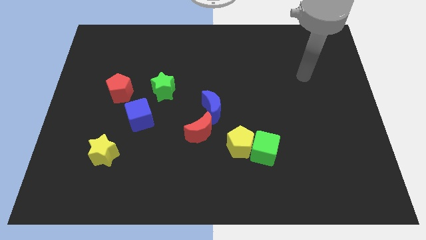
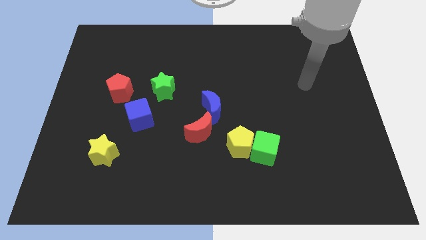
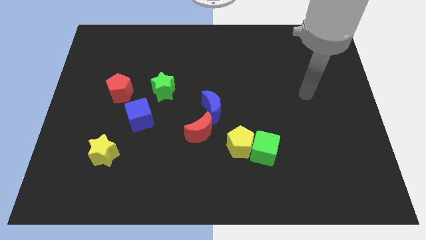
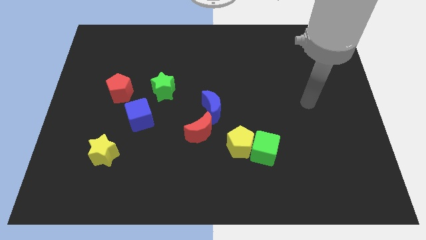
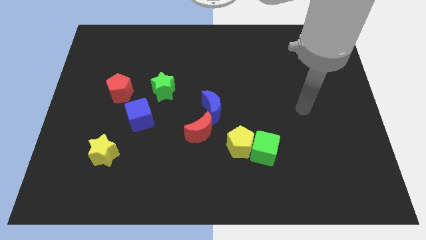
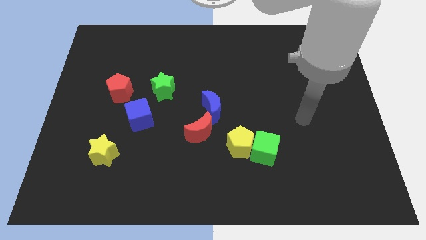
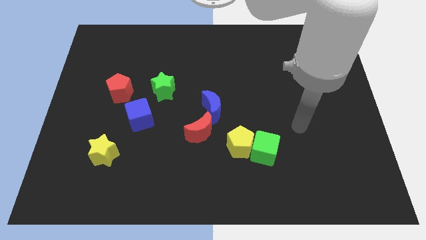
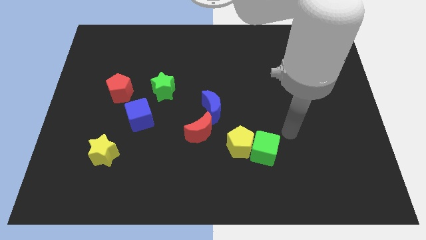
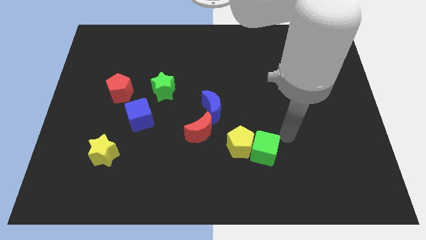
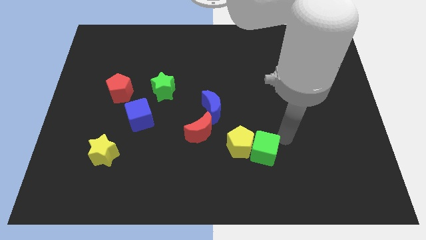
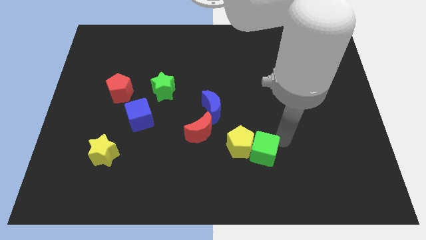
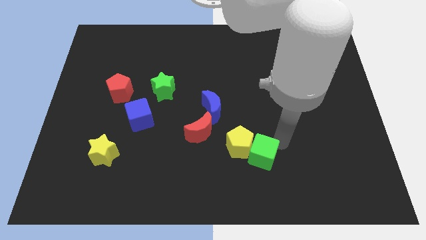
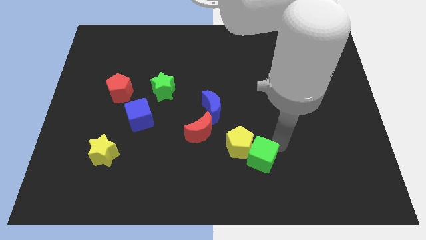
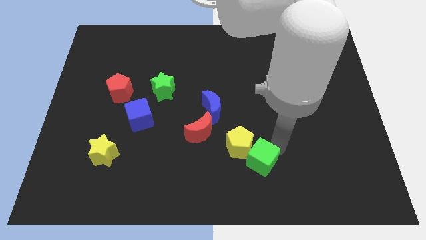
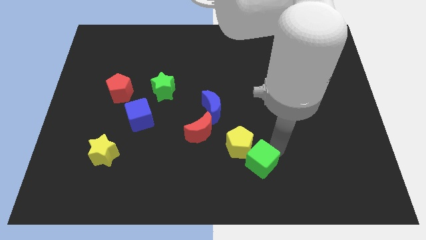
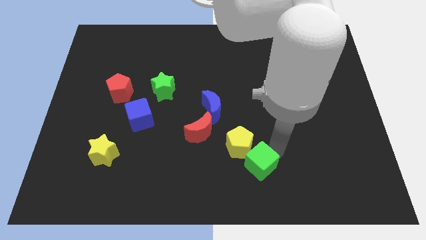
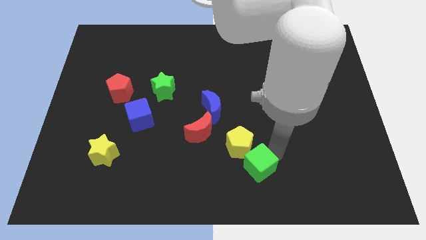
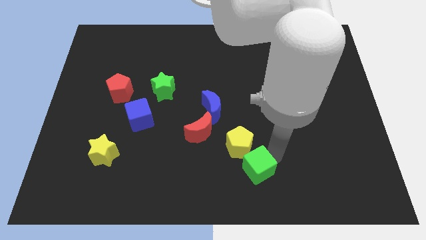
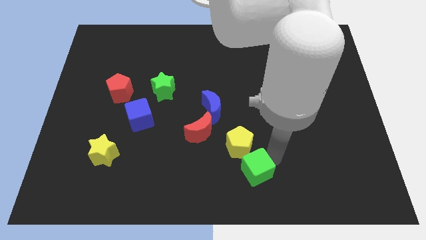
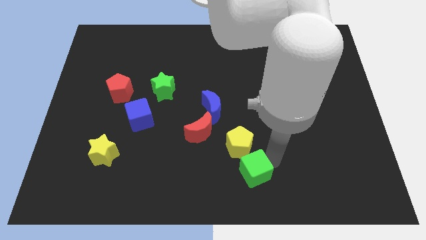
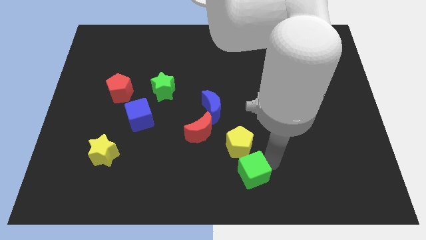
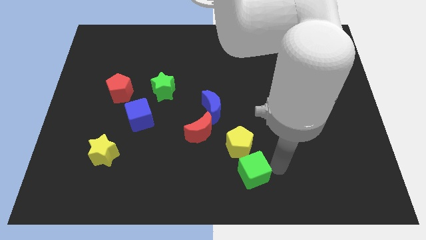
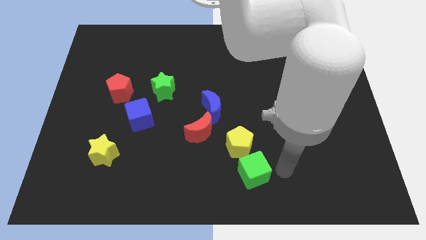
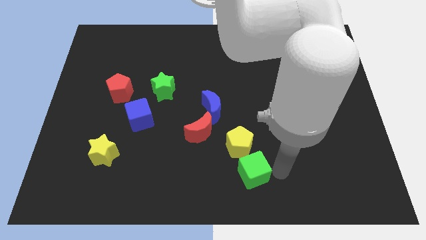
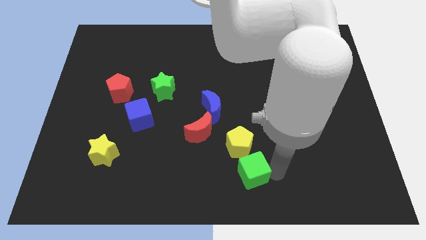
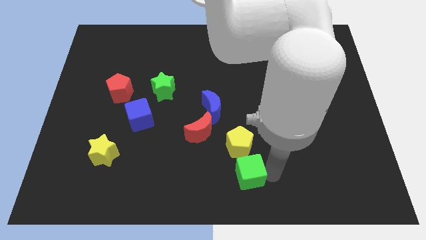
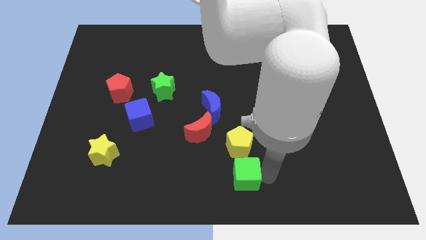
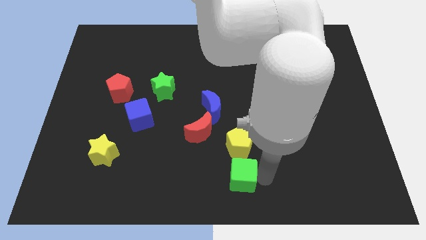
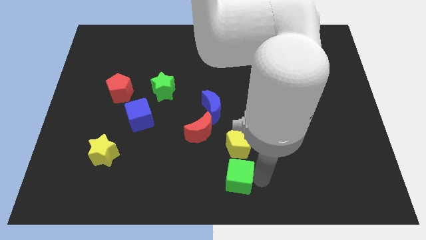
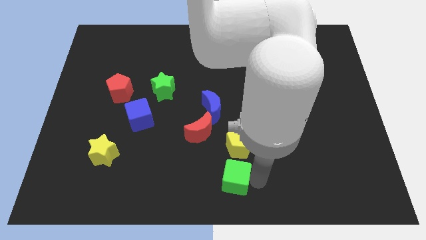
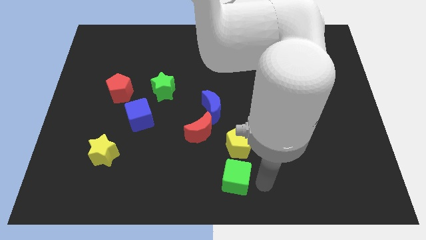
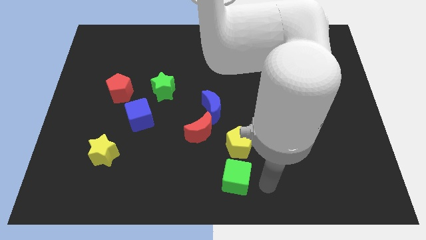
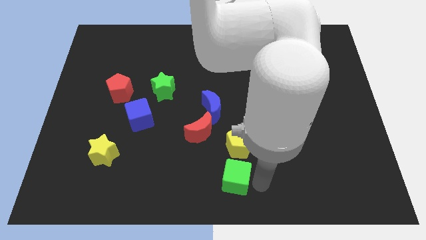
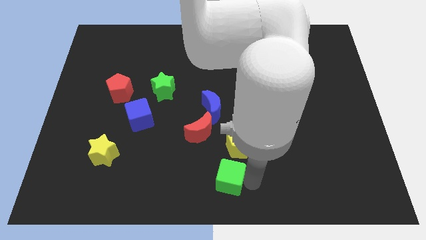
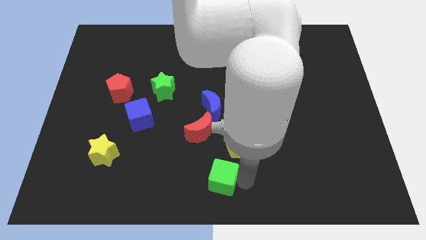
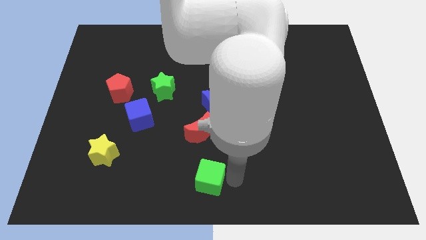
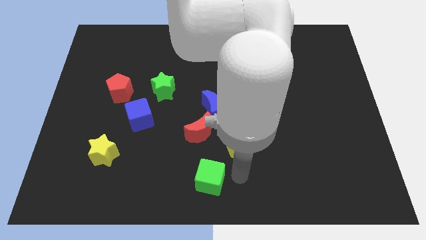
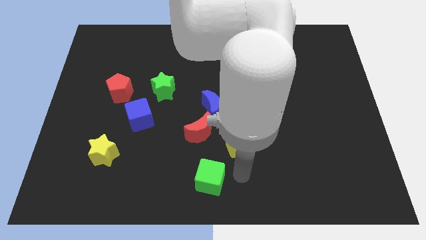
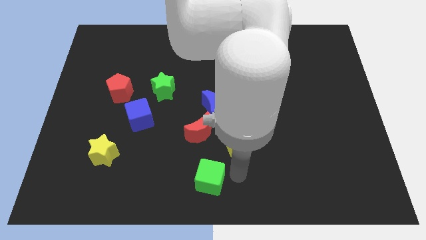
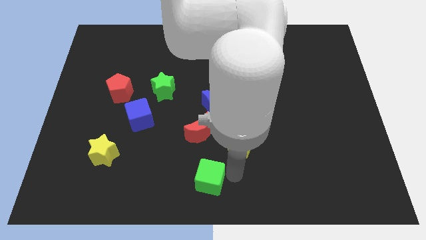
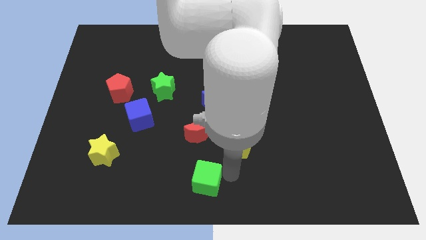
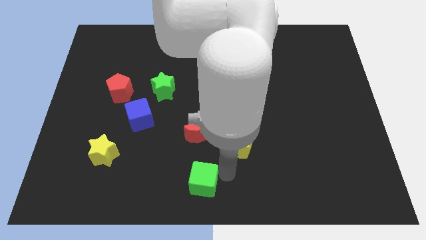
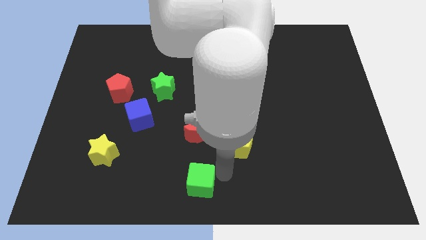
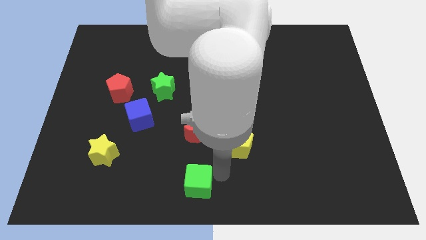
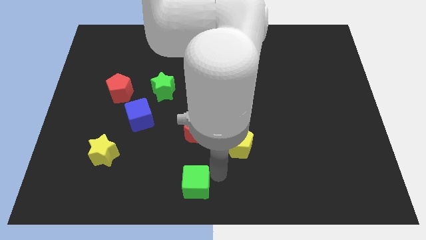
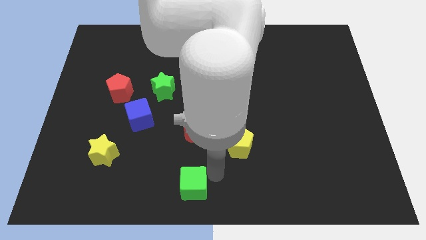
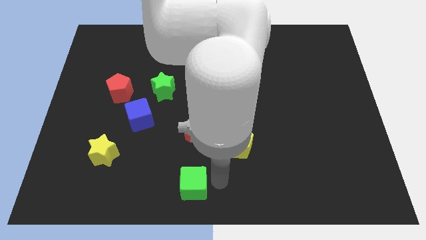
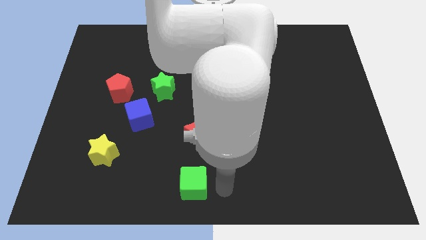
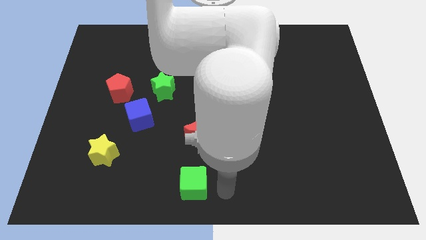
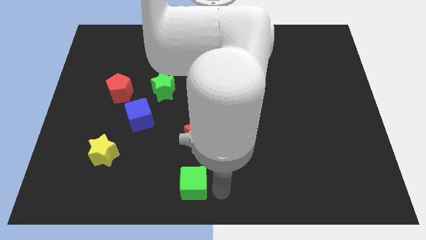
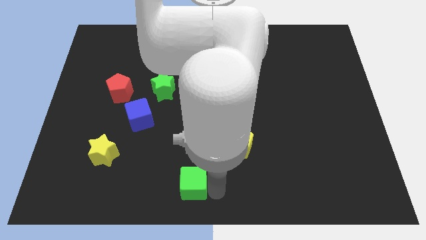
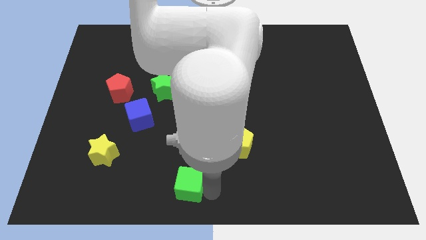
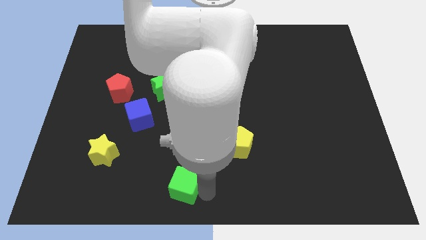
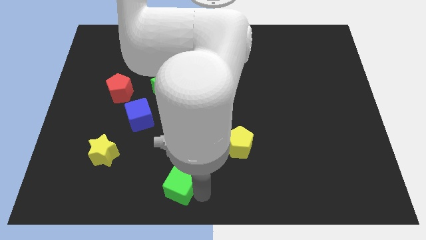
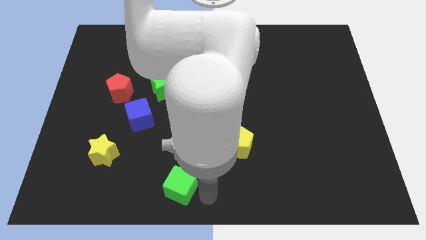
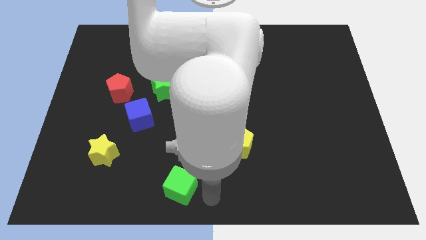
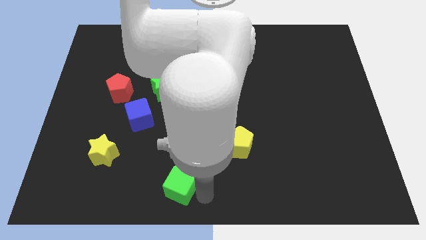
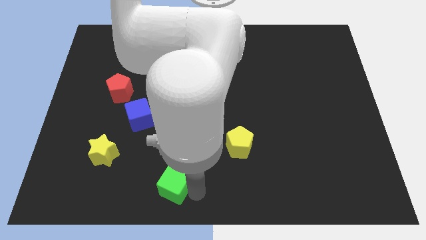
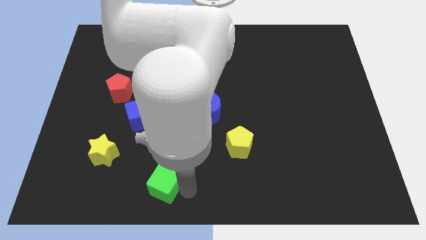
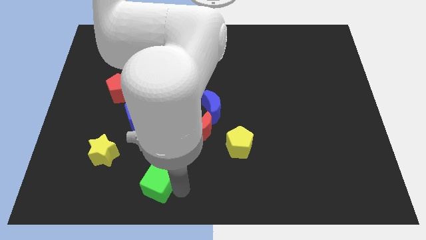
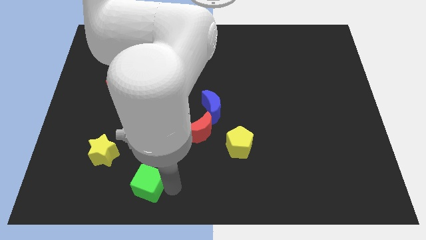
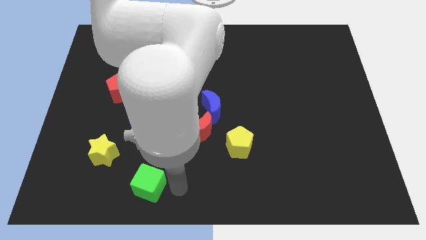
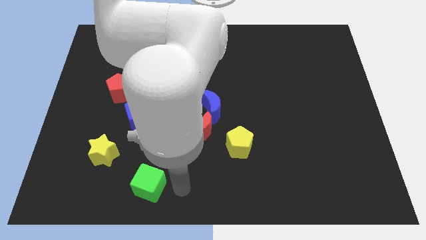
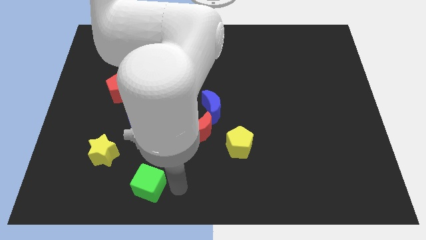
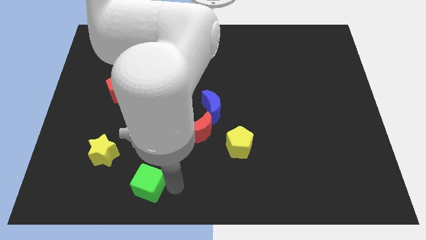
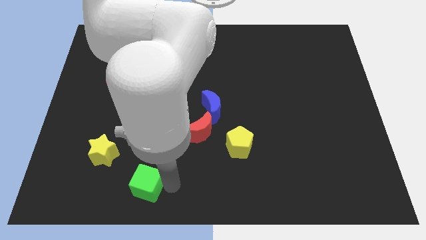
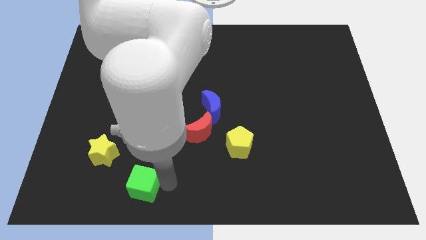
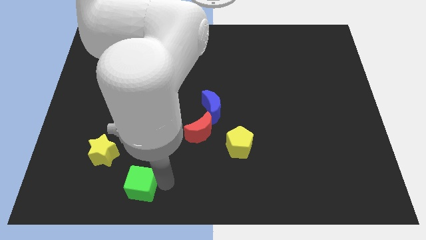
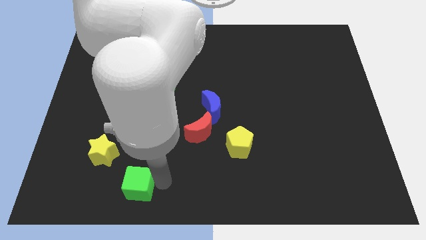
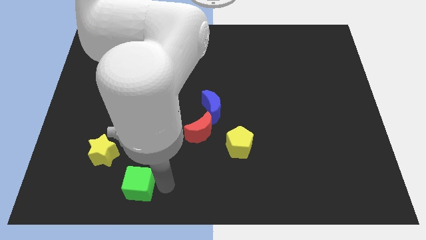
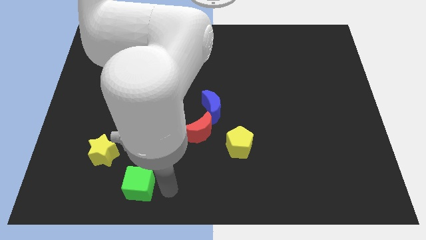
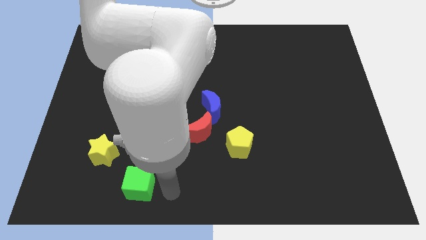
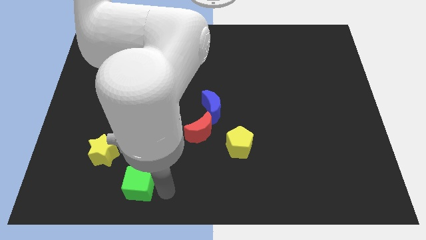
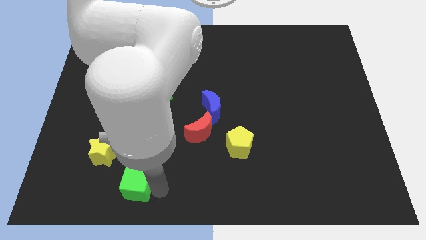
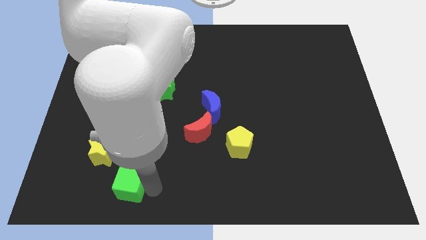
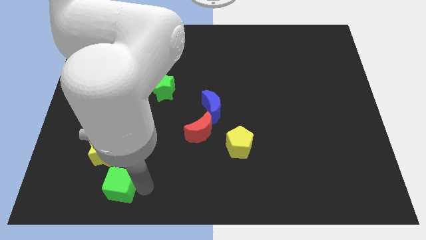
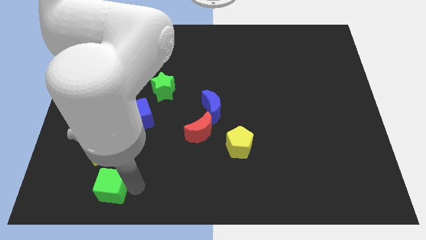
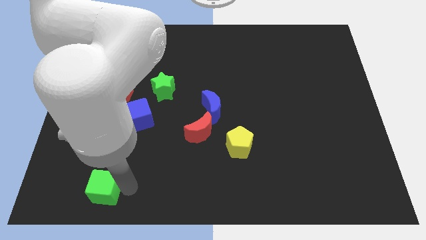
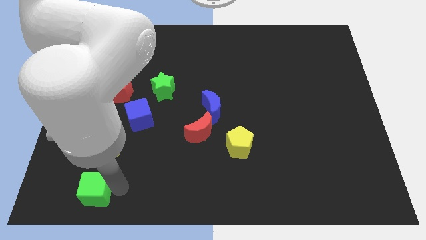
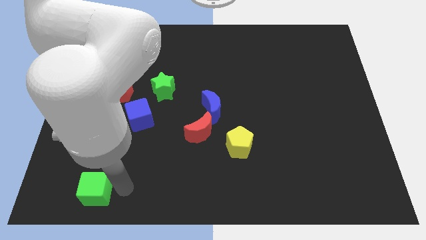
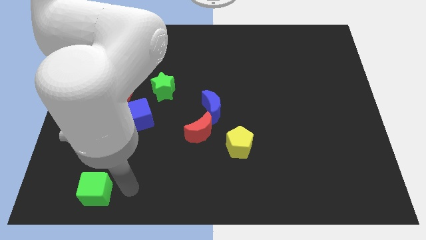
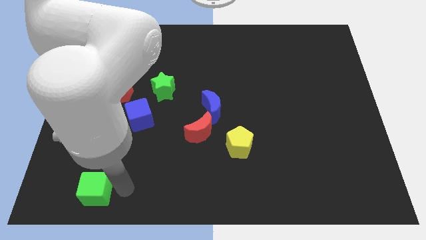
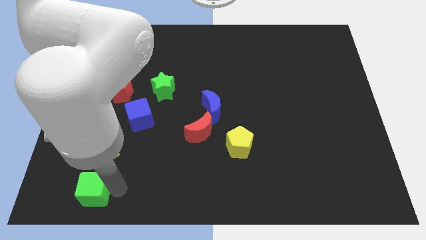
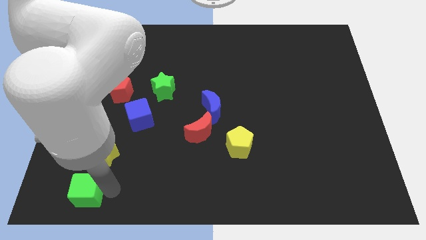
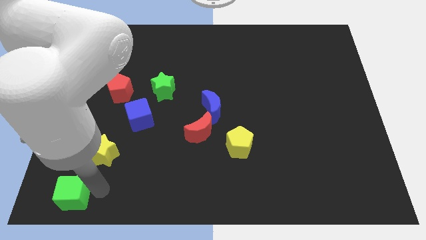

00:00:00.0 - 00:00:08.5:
put the green cube to the bottom left corner
